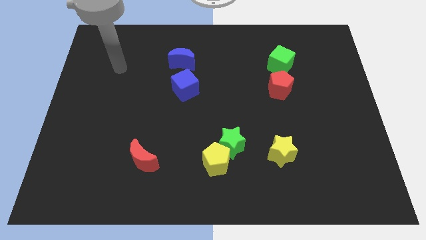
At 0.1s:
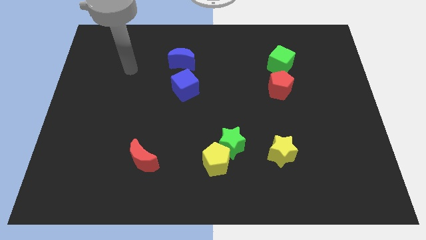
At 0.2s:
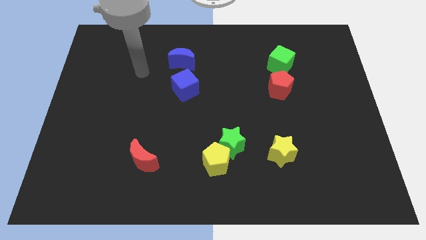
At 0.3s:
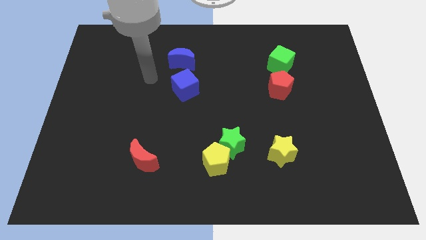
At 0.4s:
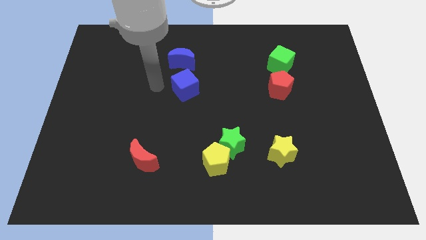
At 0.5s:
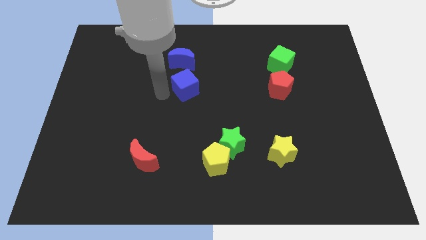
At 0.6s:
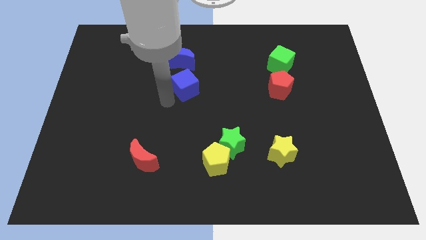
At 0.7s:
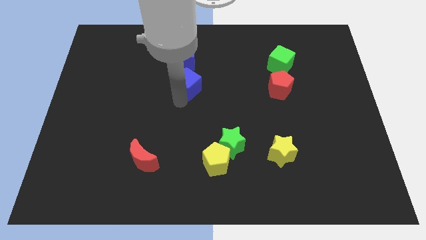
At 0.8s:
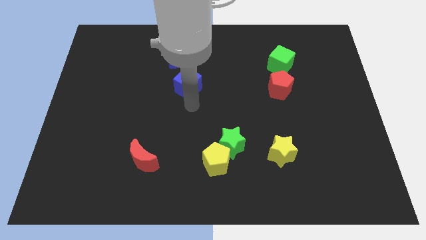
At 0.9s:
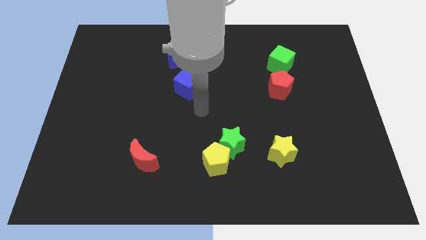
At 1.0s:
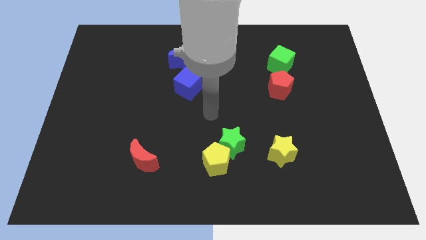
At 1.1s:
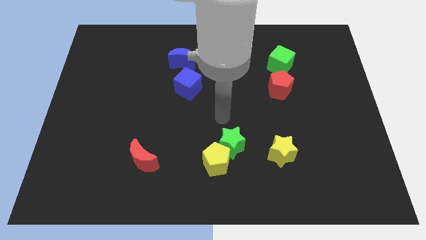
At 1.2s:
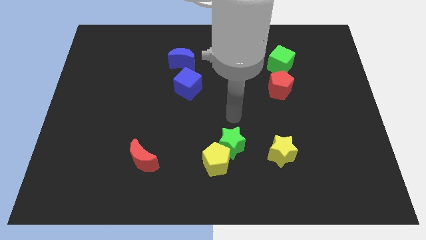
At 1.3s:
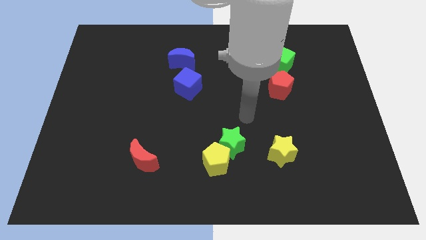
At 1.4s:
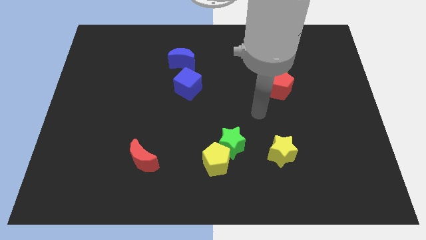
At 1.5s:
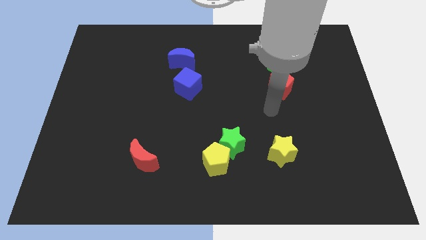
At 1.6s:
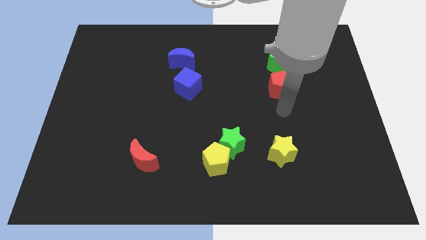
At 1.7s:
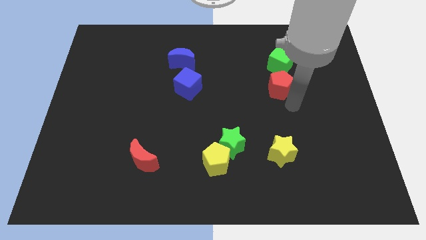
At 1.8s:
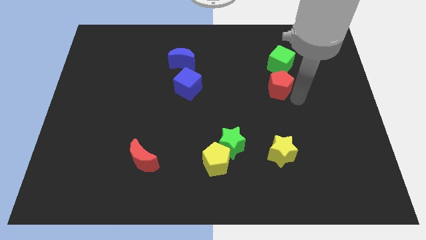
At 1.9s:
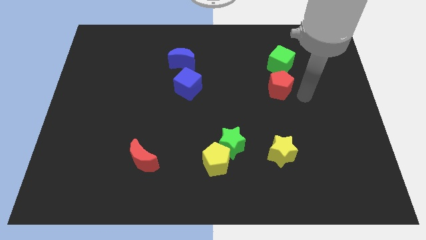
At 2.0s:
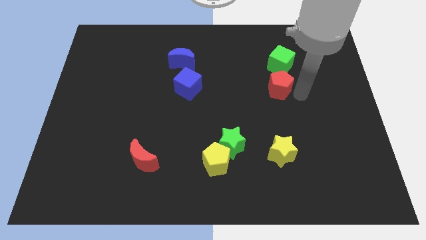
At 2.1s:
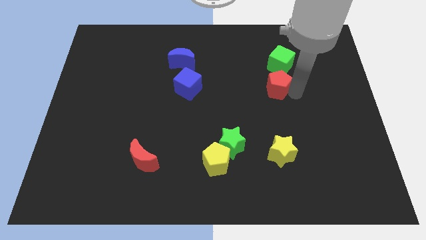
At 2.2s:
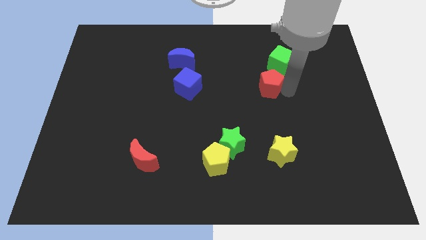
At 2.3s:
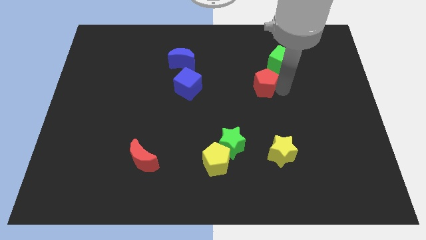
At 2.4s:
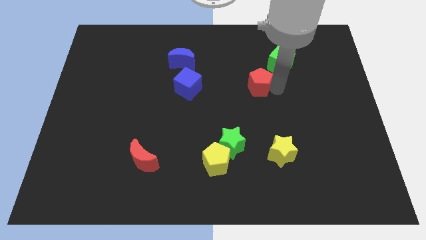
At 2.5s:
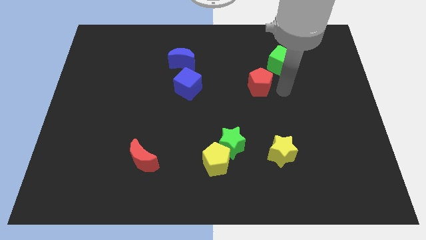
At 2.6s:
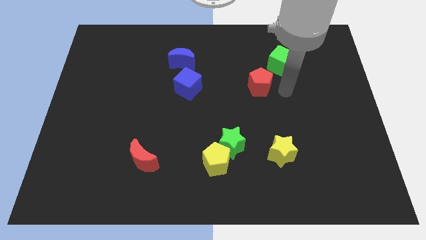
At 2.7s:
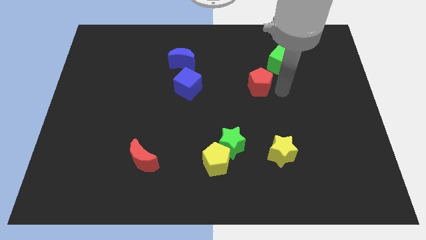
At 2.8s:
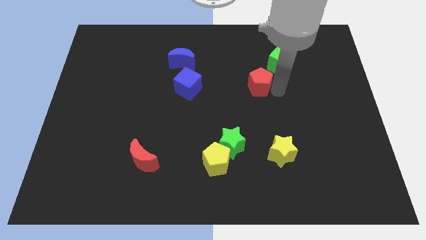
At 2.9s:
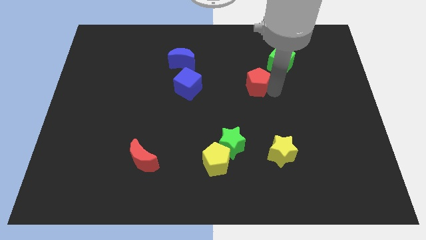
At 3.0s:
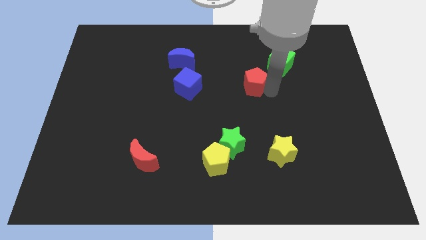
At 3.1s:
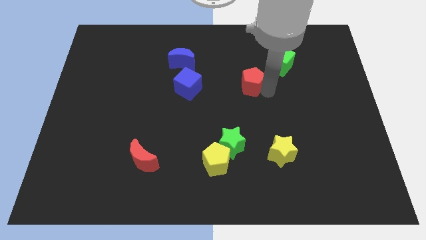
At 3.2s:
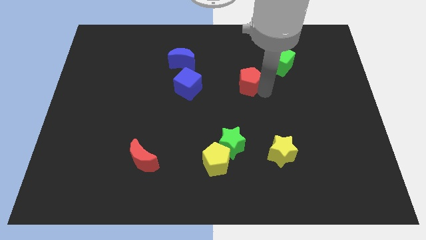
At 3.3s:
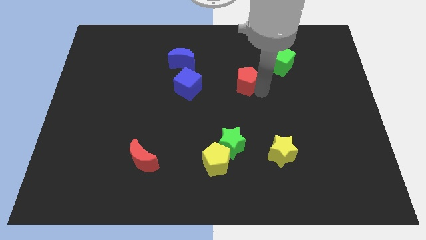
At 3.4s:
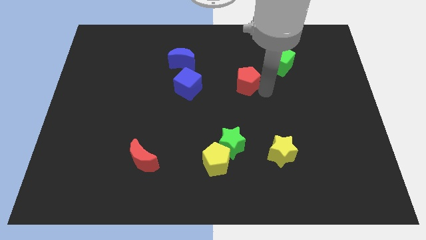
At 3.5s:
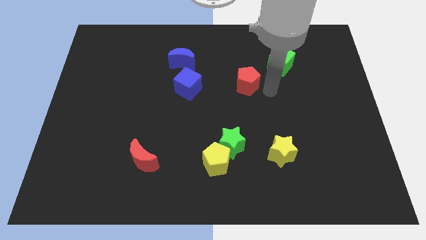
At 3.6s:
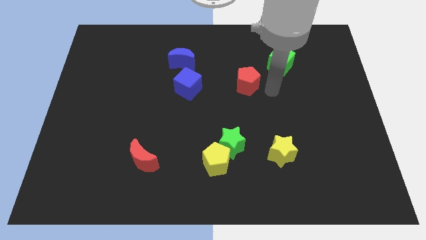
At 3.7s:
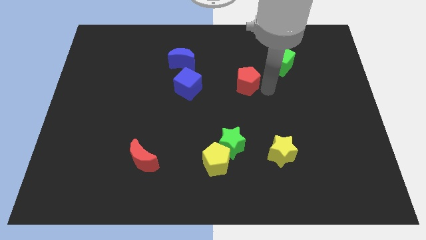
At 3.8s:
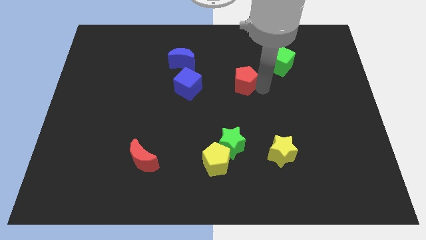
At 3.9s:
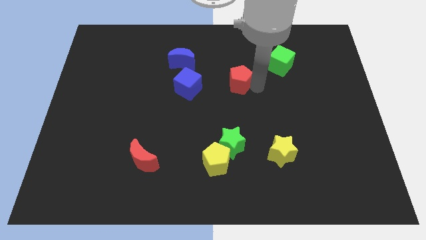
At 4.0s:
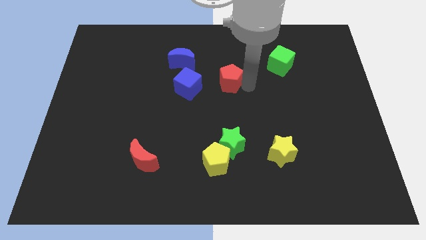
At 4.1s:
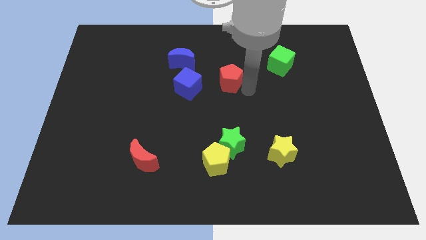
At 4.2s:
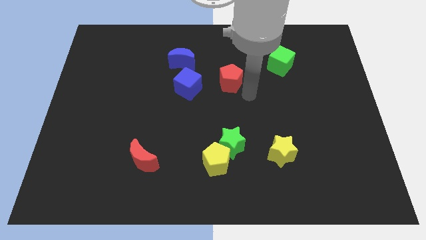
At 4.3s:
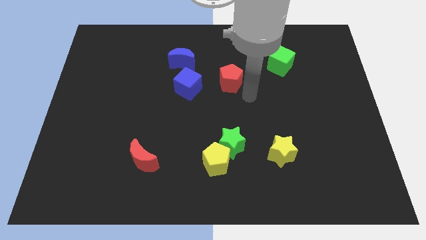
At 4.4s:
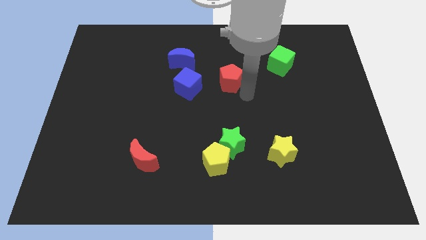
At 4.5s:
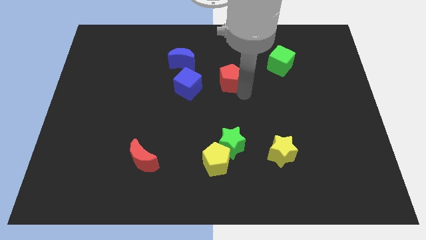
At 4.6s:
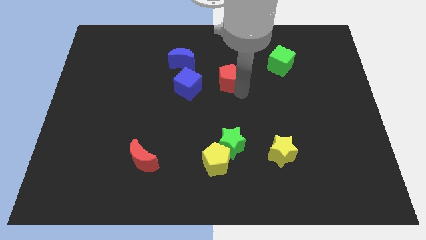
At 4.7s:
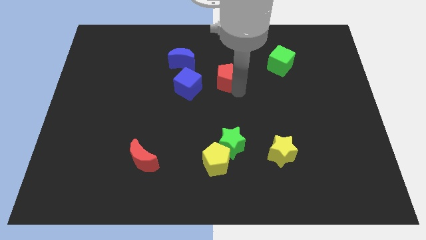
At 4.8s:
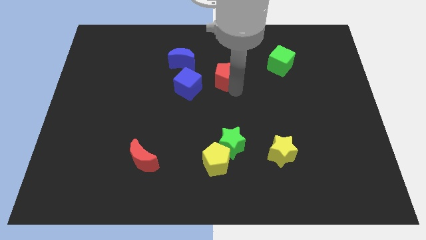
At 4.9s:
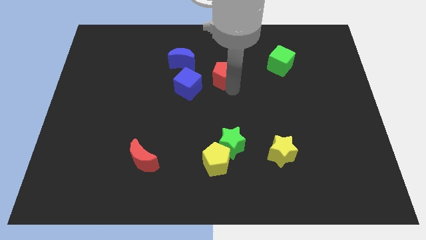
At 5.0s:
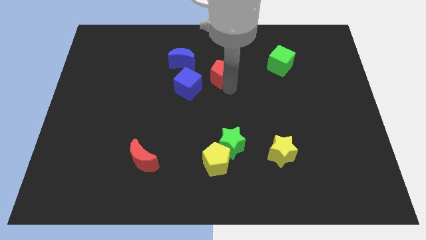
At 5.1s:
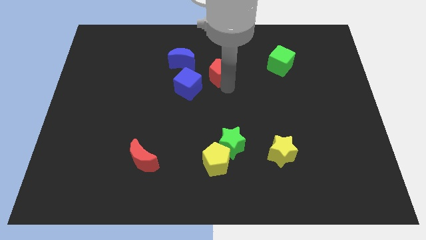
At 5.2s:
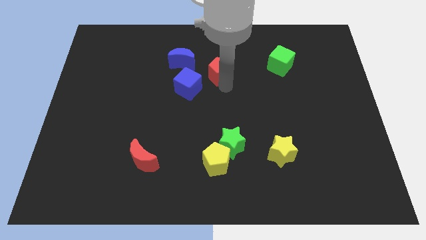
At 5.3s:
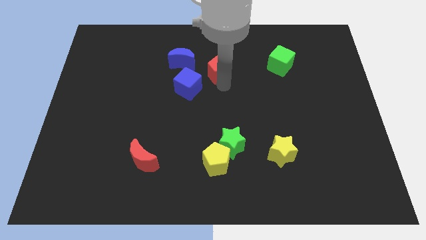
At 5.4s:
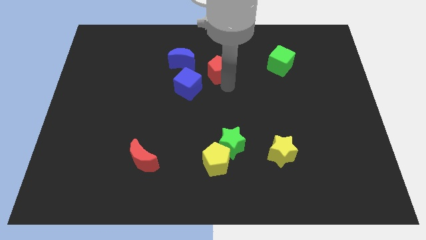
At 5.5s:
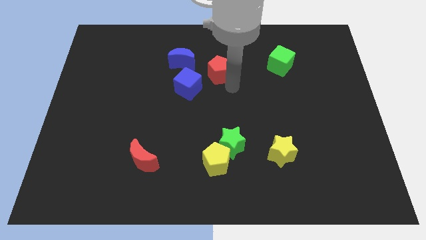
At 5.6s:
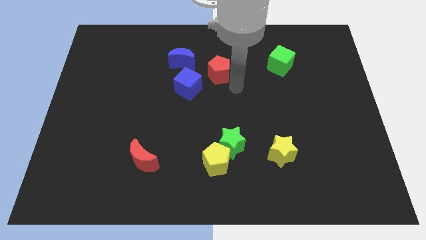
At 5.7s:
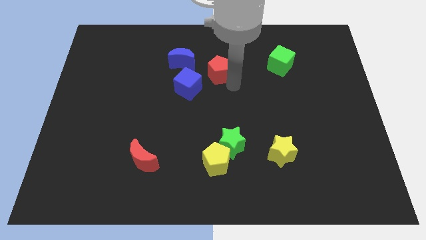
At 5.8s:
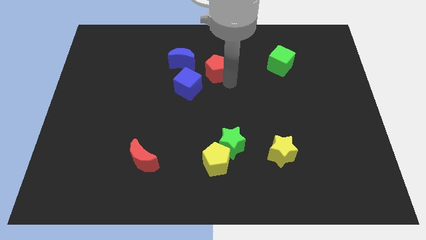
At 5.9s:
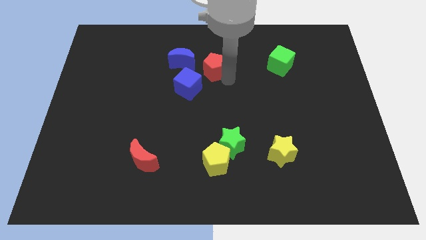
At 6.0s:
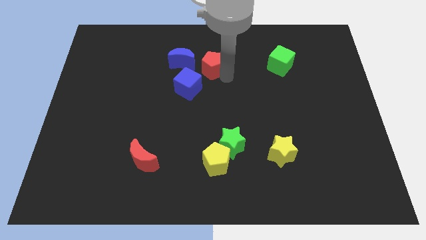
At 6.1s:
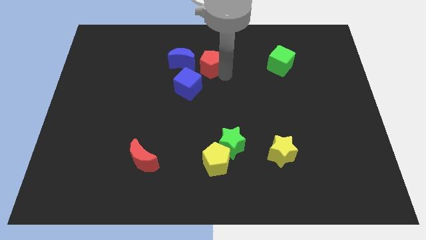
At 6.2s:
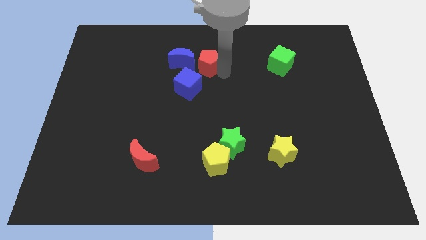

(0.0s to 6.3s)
put the red pentagon to the top side of the blue cube
